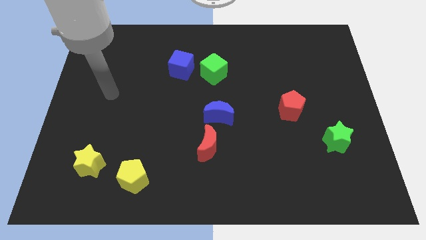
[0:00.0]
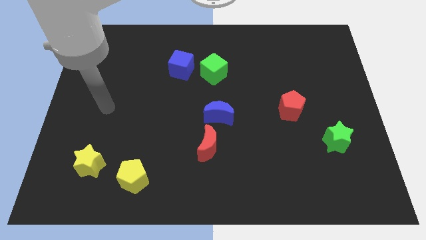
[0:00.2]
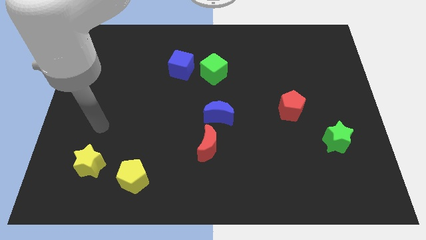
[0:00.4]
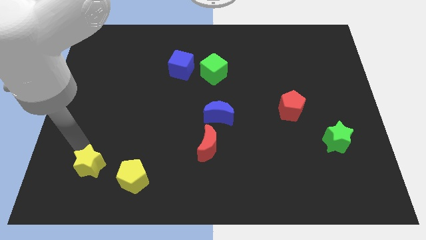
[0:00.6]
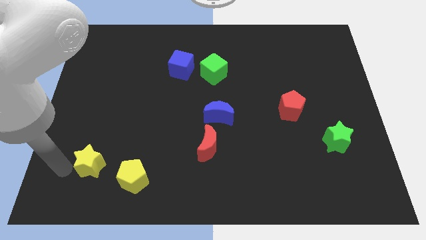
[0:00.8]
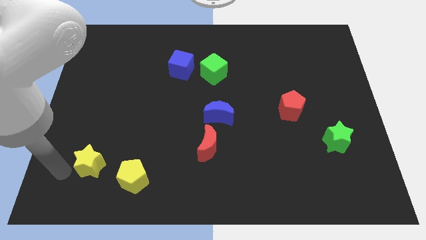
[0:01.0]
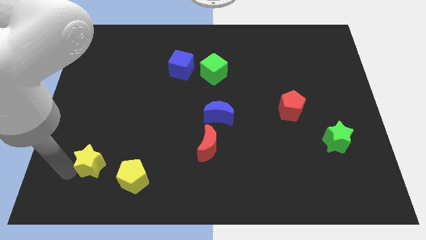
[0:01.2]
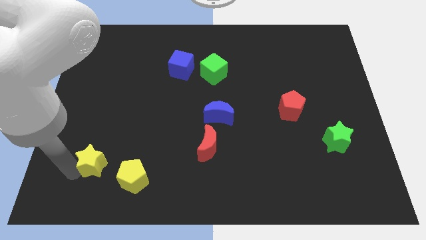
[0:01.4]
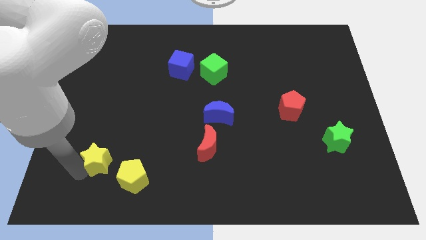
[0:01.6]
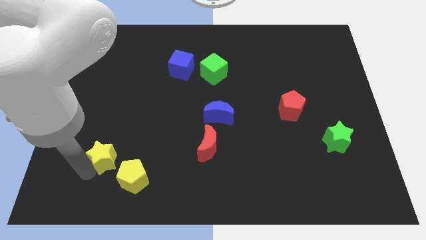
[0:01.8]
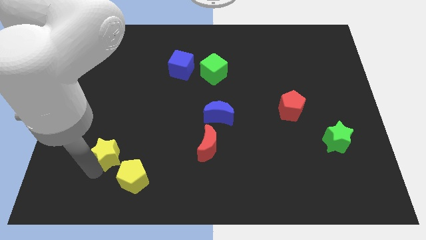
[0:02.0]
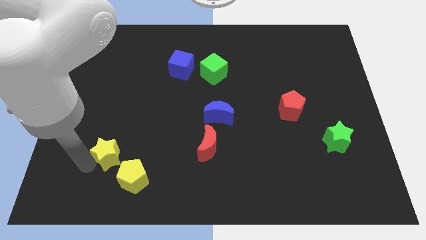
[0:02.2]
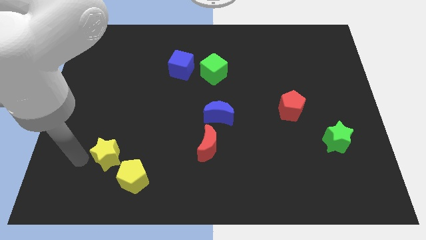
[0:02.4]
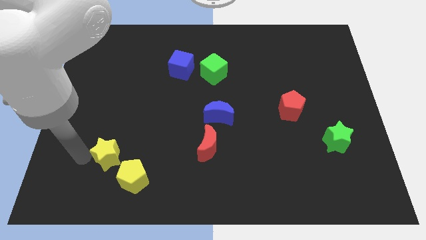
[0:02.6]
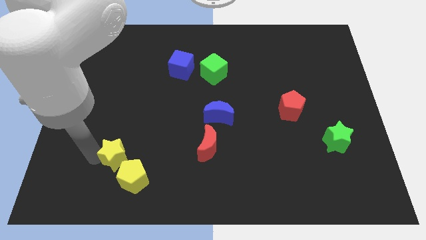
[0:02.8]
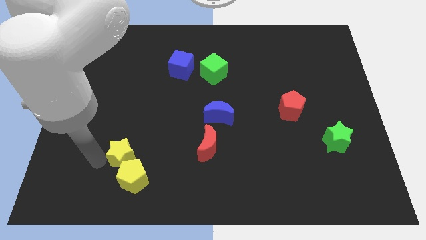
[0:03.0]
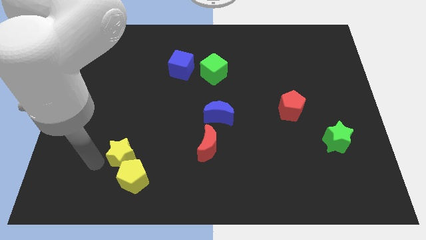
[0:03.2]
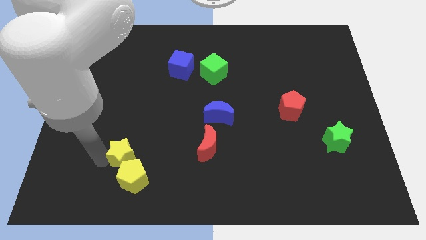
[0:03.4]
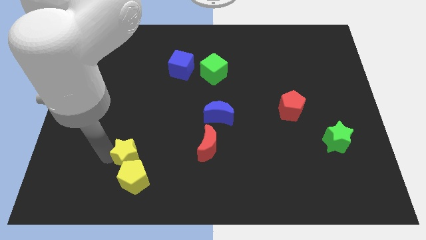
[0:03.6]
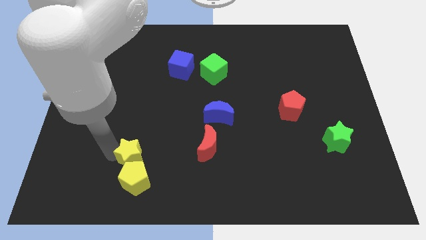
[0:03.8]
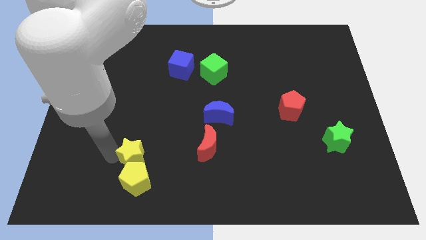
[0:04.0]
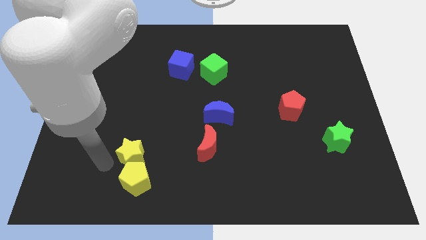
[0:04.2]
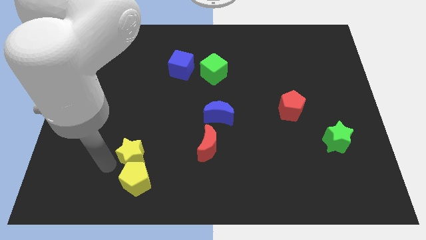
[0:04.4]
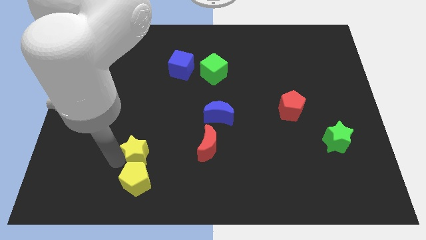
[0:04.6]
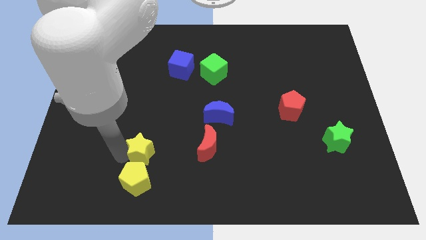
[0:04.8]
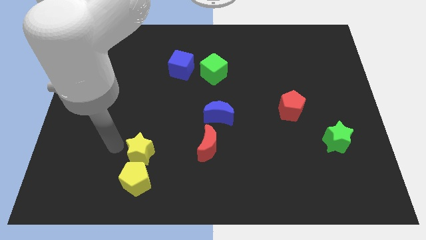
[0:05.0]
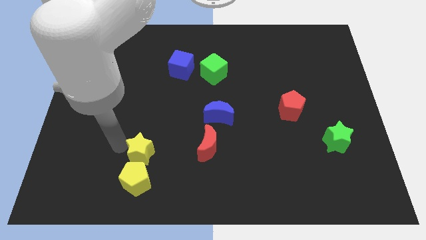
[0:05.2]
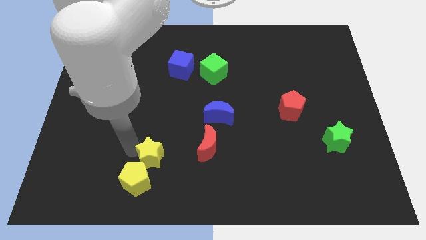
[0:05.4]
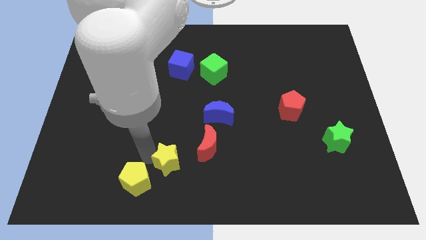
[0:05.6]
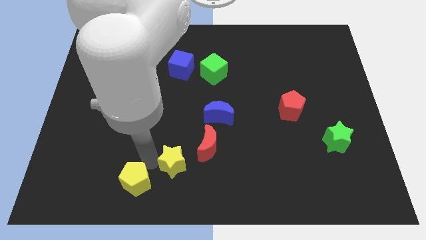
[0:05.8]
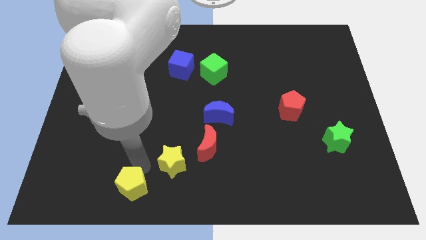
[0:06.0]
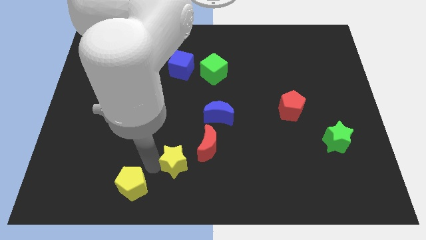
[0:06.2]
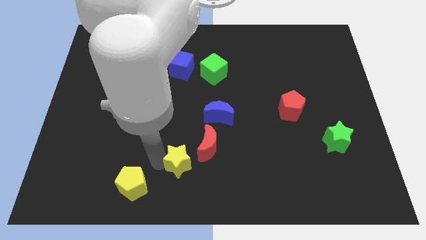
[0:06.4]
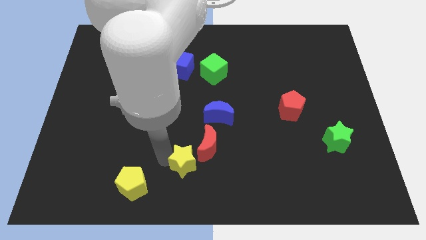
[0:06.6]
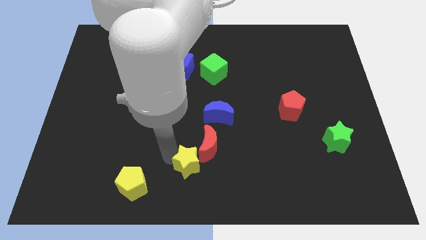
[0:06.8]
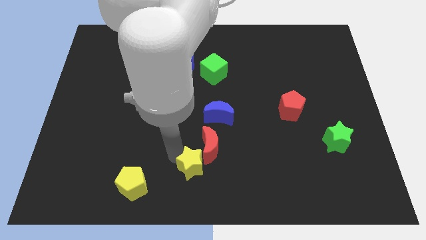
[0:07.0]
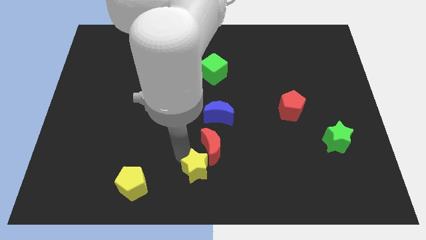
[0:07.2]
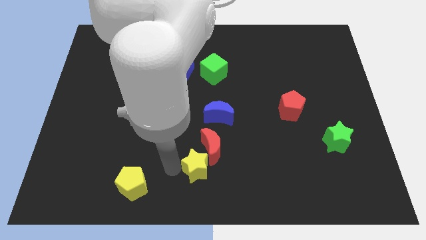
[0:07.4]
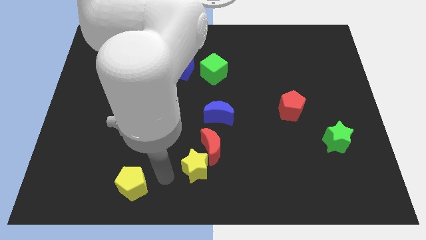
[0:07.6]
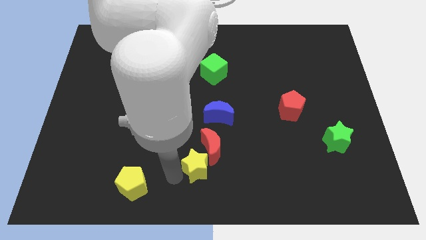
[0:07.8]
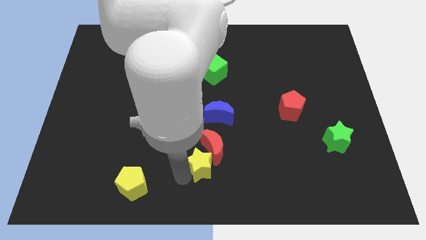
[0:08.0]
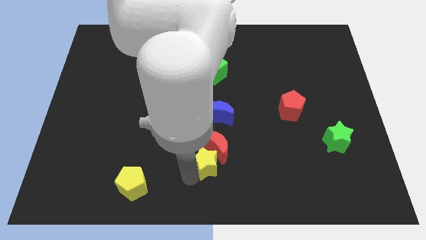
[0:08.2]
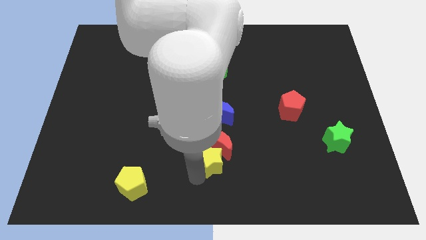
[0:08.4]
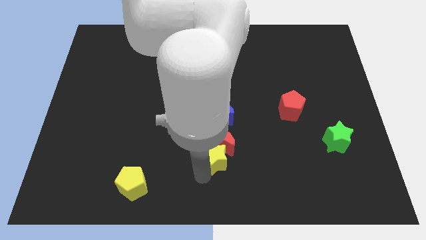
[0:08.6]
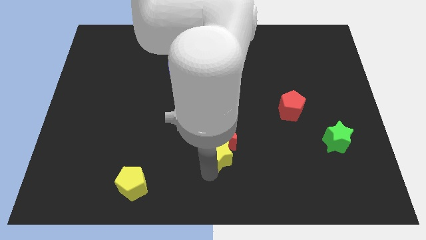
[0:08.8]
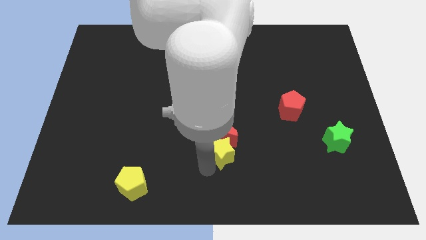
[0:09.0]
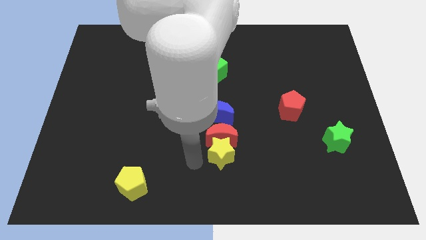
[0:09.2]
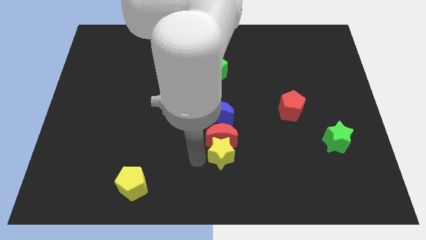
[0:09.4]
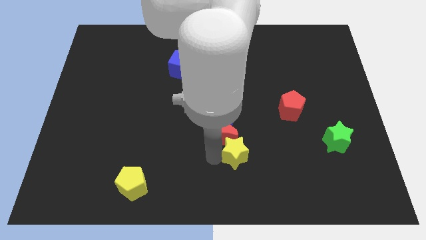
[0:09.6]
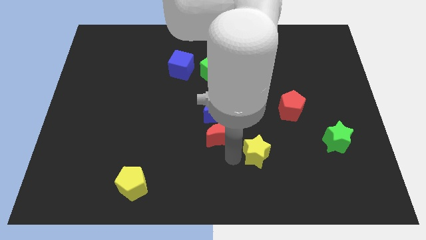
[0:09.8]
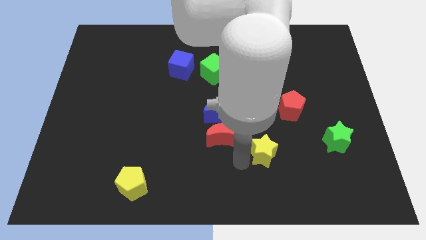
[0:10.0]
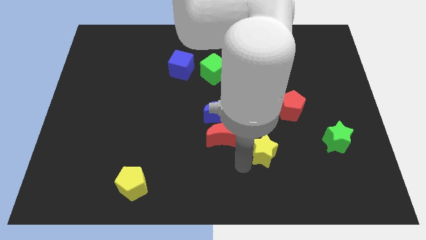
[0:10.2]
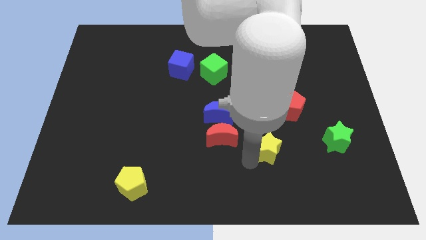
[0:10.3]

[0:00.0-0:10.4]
put the yellow star to the left of the green star

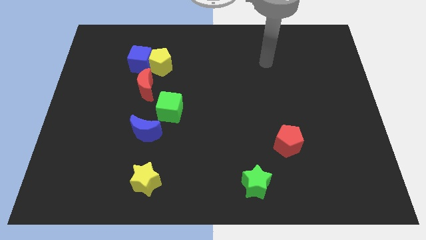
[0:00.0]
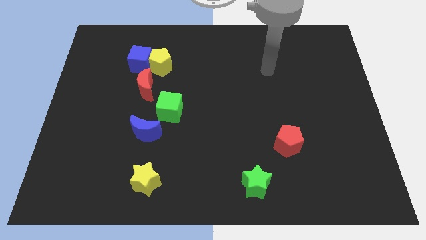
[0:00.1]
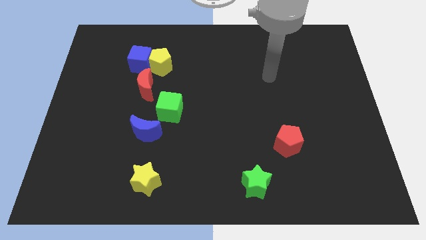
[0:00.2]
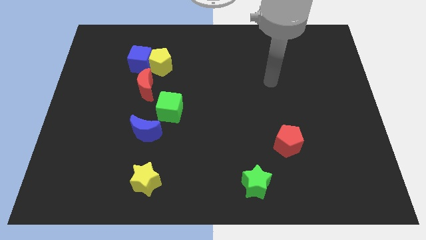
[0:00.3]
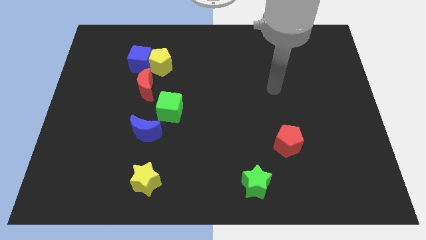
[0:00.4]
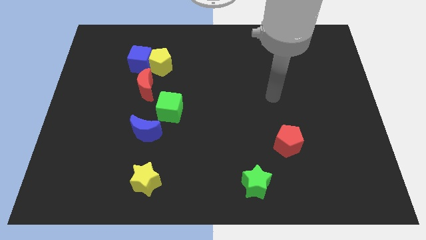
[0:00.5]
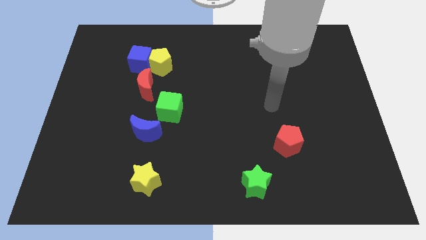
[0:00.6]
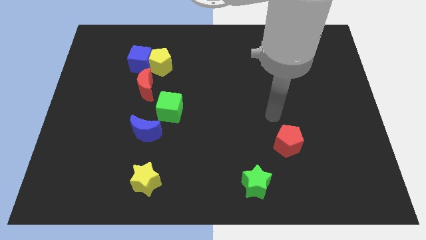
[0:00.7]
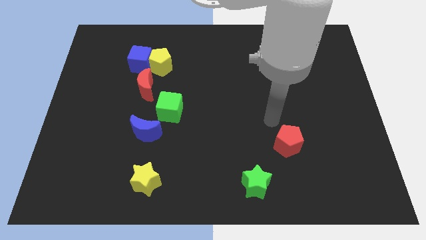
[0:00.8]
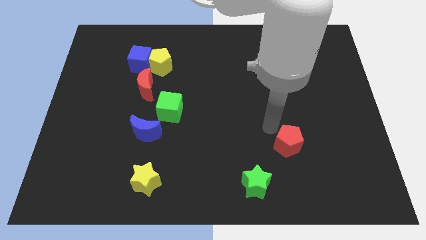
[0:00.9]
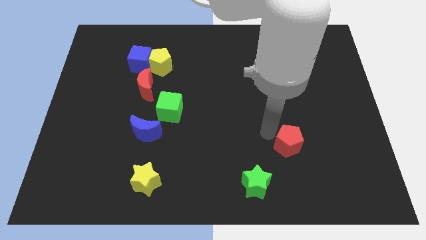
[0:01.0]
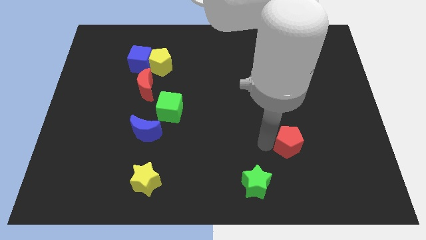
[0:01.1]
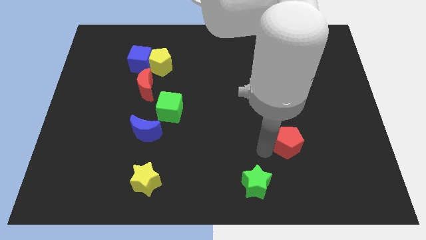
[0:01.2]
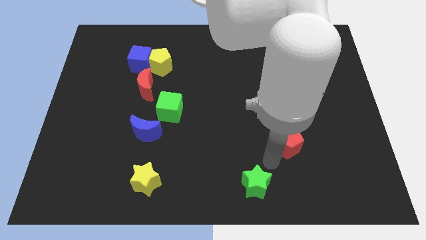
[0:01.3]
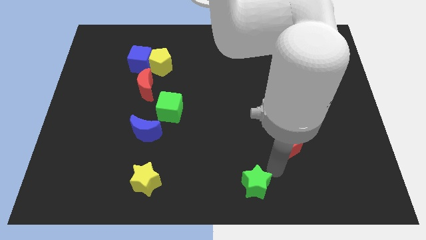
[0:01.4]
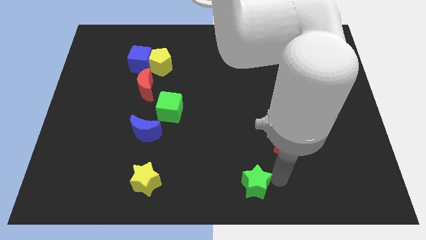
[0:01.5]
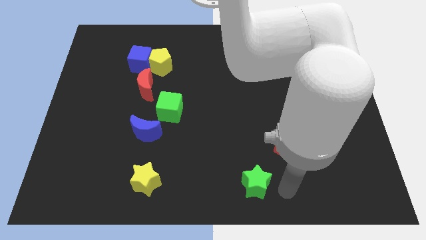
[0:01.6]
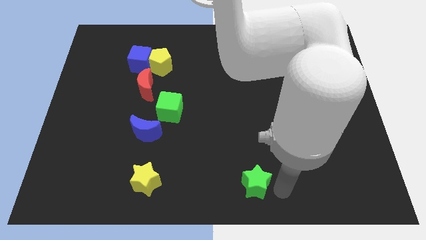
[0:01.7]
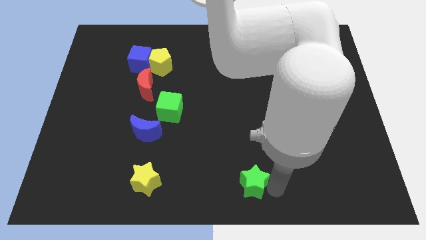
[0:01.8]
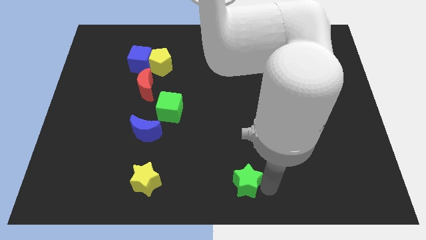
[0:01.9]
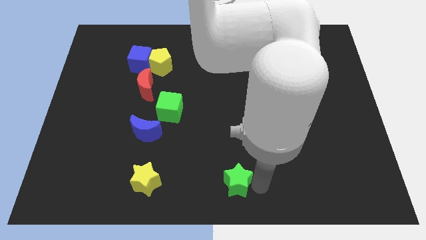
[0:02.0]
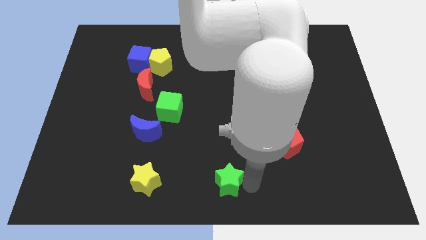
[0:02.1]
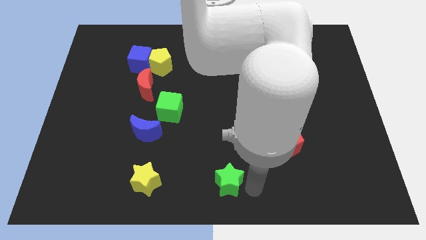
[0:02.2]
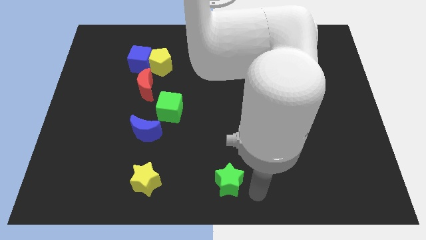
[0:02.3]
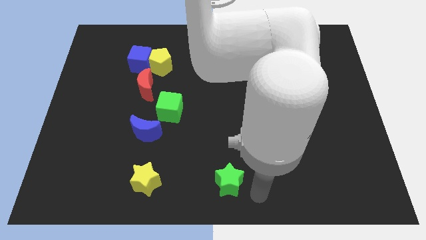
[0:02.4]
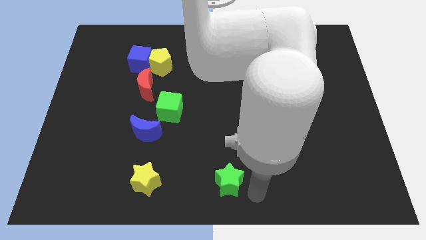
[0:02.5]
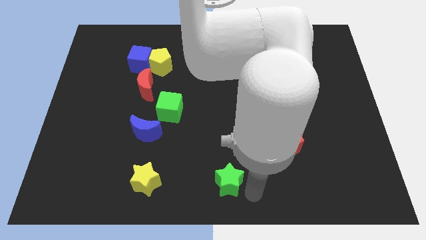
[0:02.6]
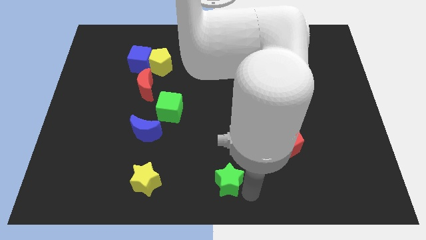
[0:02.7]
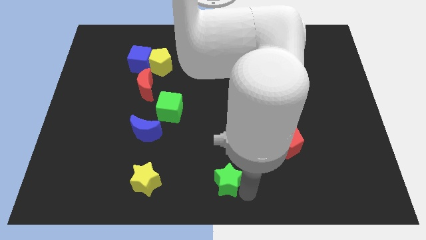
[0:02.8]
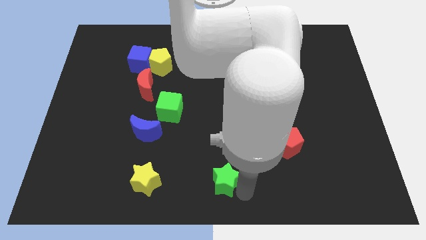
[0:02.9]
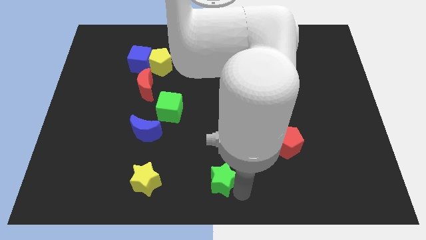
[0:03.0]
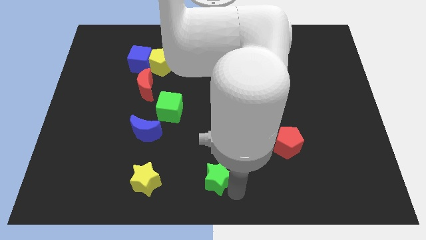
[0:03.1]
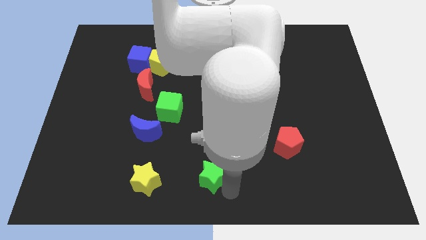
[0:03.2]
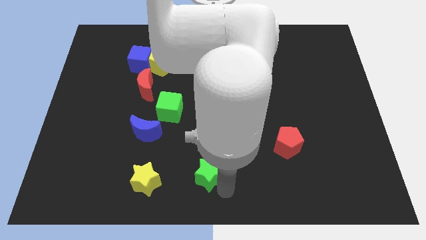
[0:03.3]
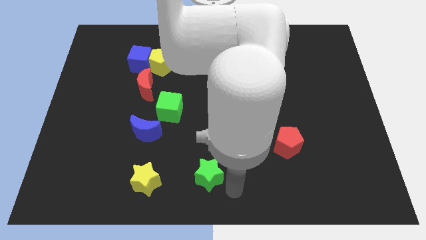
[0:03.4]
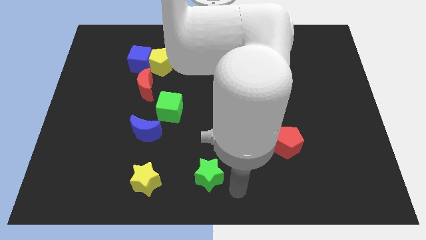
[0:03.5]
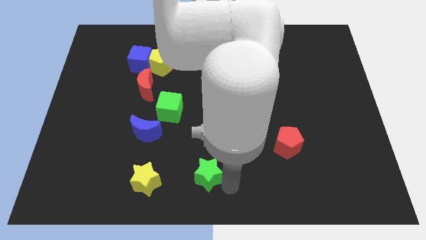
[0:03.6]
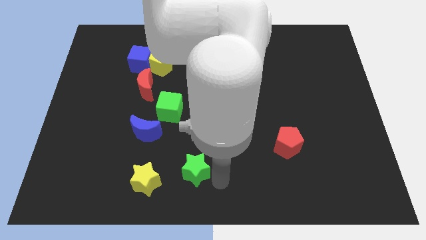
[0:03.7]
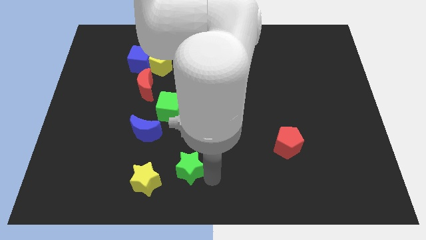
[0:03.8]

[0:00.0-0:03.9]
move the green star to the top right side of the yellow star
